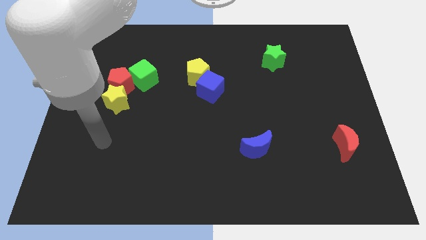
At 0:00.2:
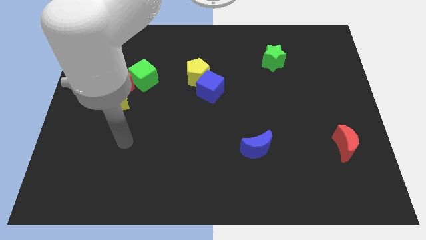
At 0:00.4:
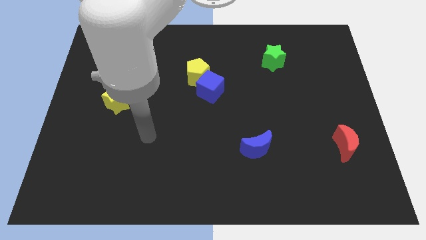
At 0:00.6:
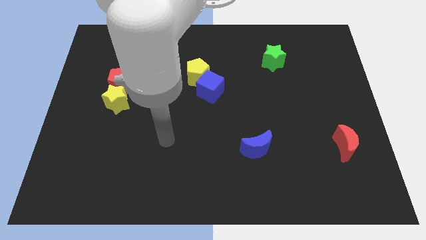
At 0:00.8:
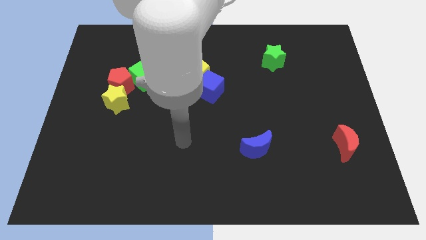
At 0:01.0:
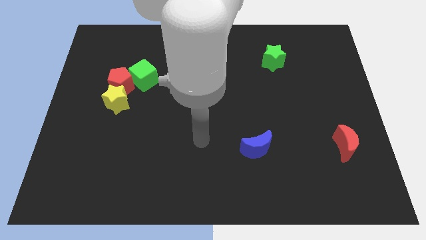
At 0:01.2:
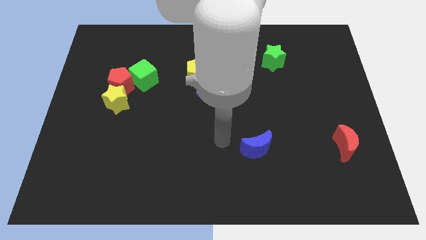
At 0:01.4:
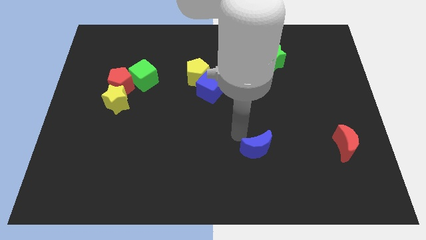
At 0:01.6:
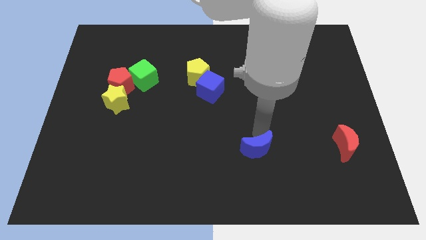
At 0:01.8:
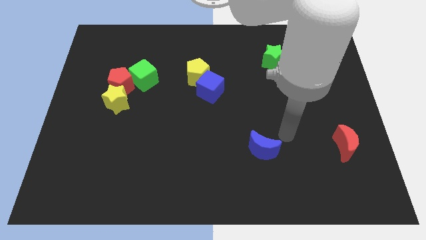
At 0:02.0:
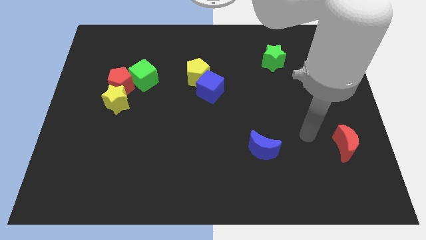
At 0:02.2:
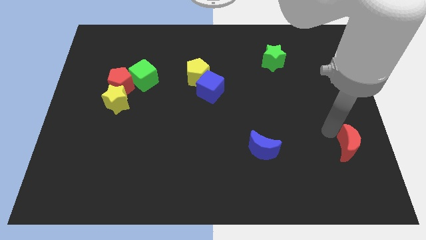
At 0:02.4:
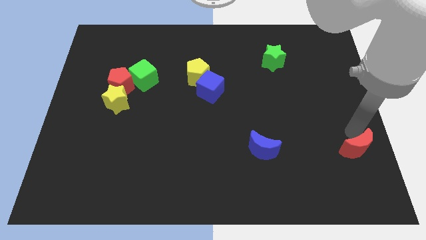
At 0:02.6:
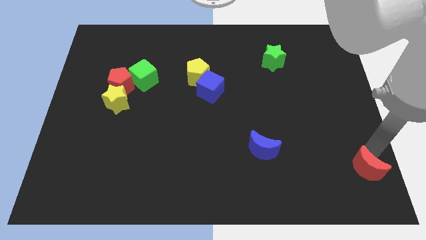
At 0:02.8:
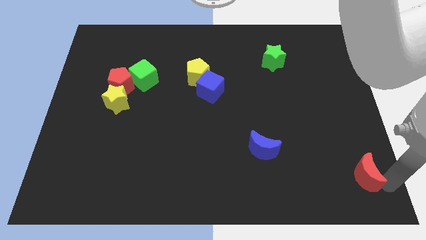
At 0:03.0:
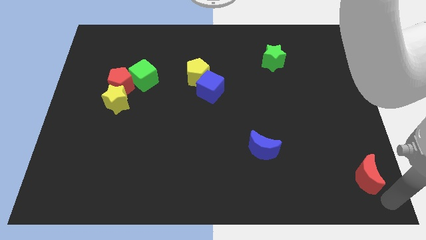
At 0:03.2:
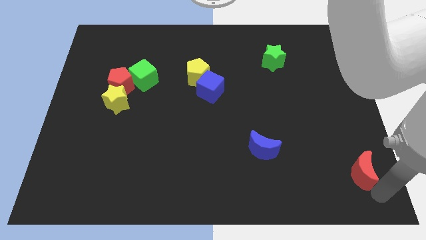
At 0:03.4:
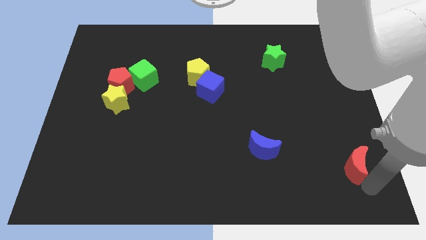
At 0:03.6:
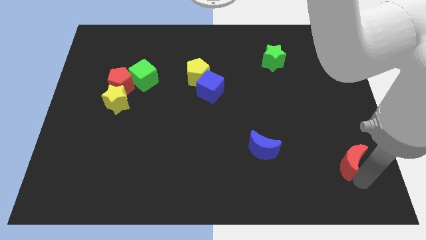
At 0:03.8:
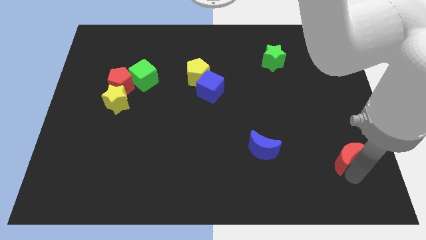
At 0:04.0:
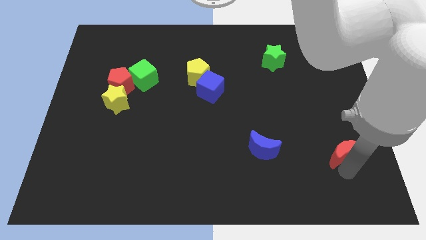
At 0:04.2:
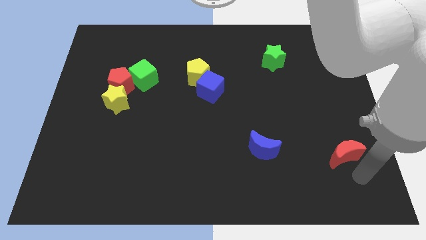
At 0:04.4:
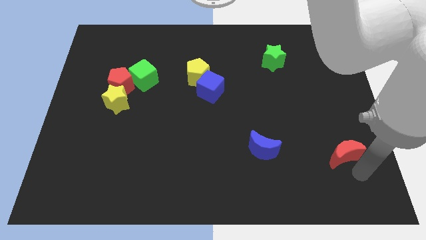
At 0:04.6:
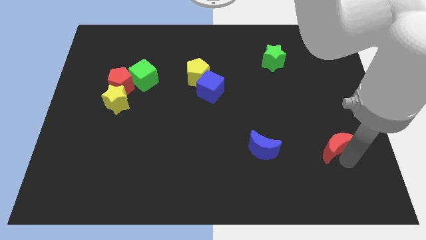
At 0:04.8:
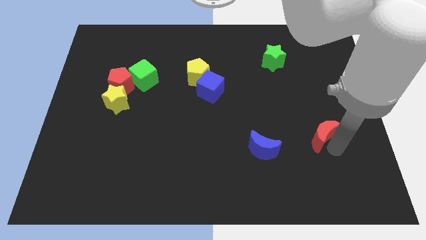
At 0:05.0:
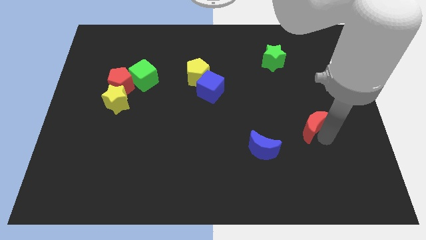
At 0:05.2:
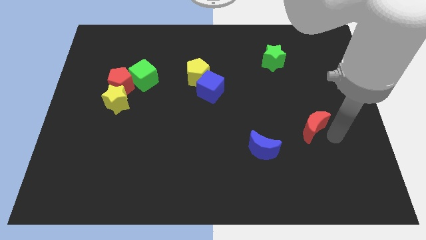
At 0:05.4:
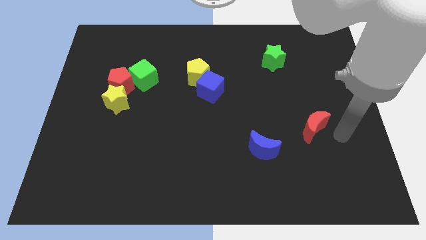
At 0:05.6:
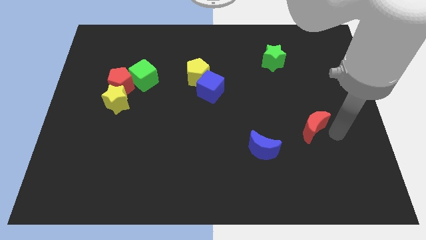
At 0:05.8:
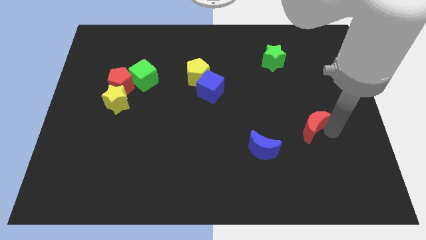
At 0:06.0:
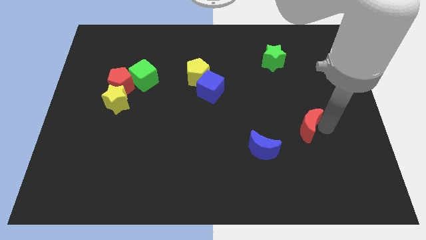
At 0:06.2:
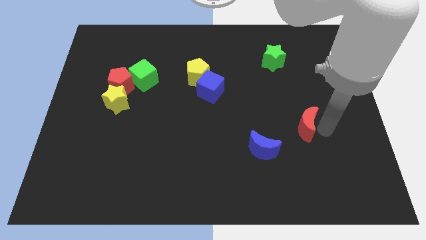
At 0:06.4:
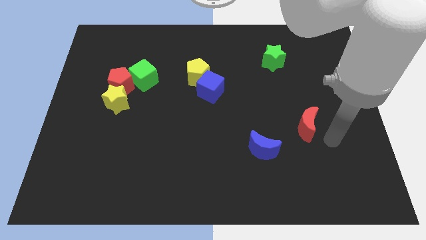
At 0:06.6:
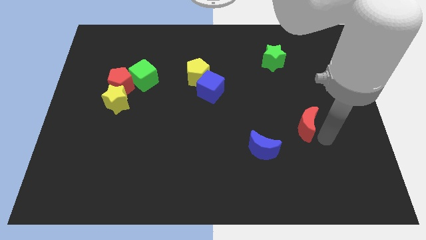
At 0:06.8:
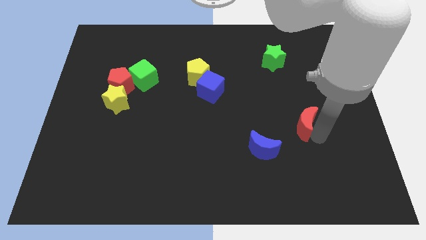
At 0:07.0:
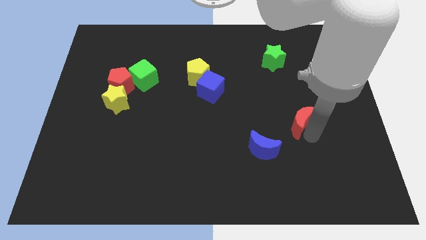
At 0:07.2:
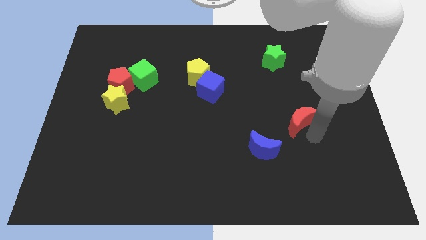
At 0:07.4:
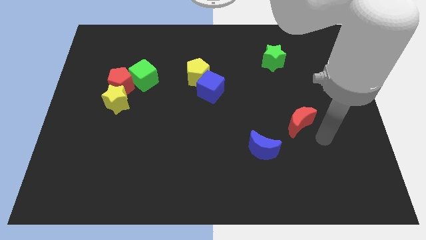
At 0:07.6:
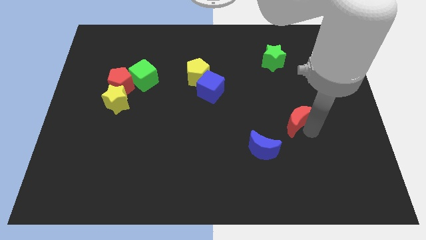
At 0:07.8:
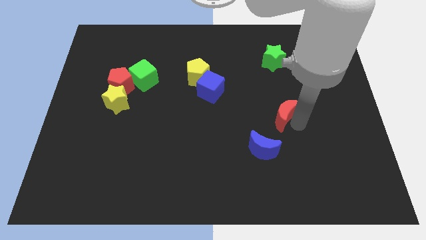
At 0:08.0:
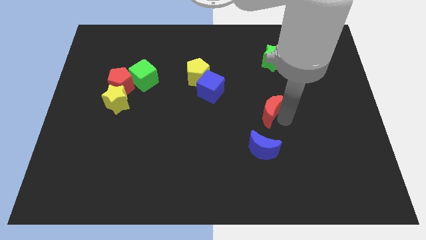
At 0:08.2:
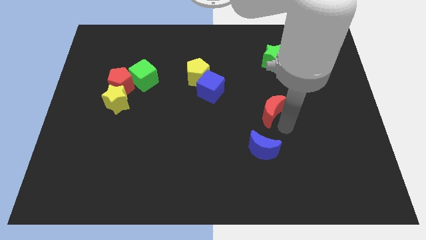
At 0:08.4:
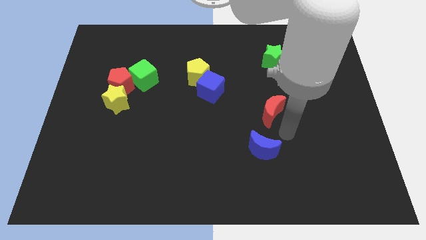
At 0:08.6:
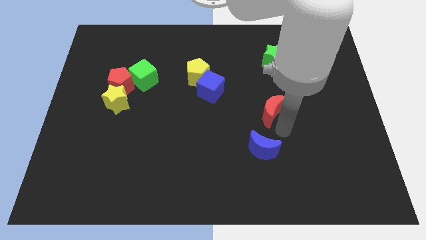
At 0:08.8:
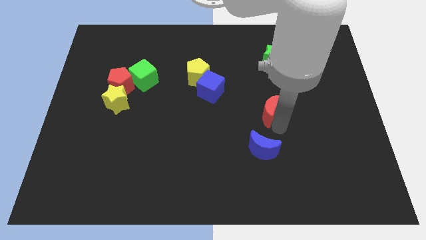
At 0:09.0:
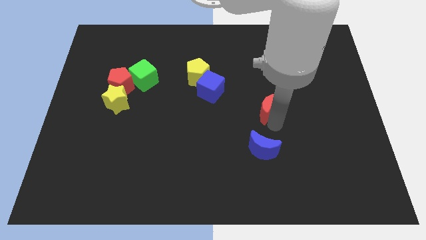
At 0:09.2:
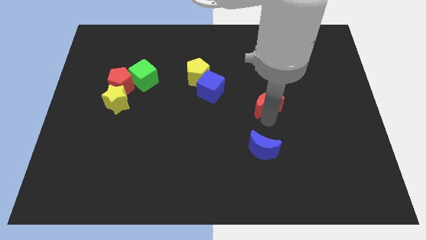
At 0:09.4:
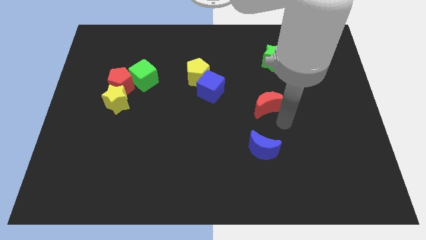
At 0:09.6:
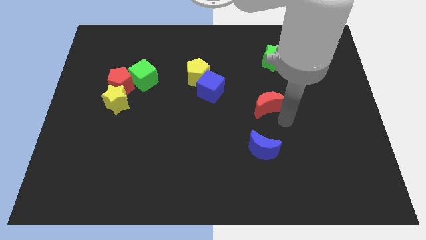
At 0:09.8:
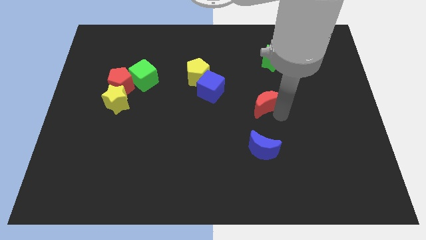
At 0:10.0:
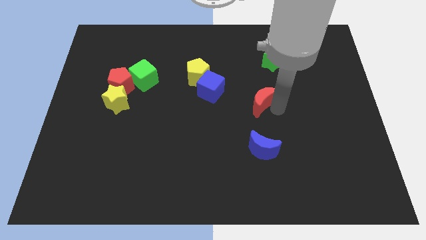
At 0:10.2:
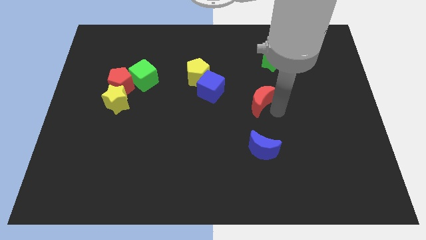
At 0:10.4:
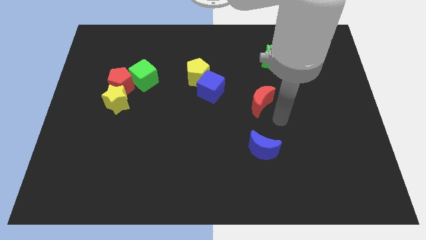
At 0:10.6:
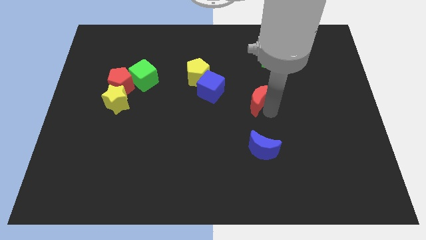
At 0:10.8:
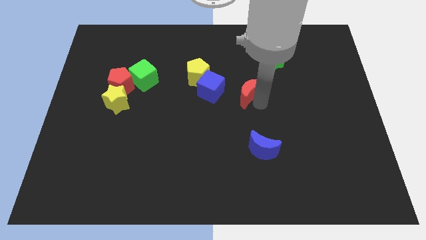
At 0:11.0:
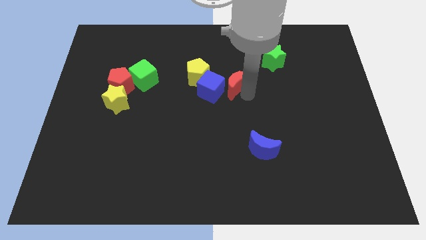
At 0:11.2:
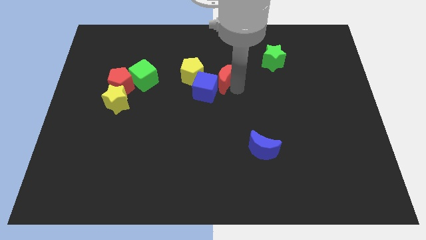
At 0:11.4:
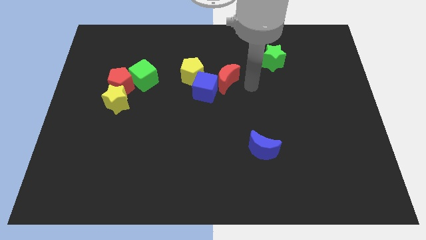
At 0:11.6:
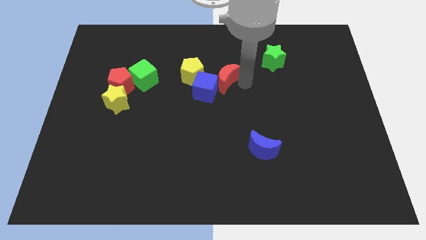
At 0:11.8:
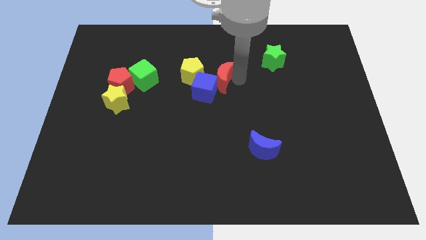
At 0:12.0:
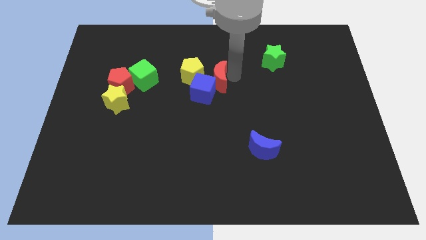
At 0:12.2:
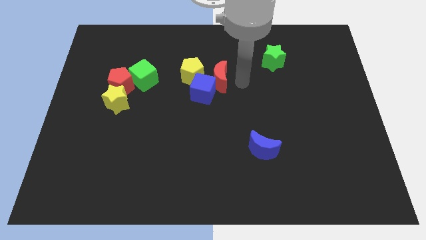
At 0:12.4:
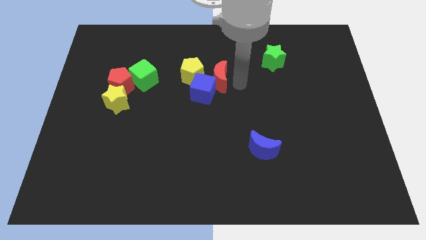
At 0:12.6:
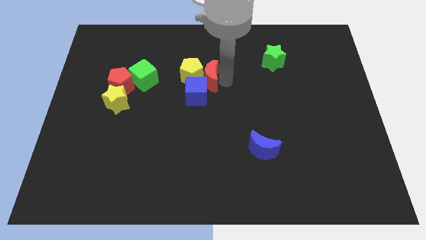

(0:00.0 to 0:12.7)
slide the red moon to the yellow pentagon

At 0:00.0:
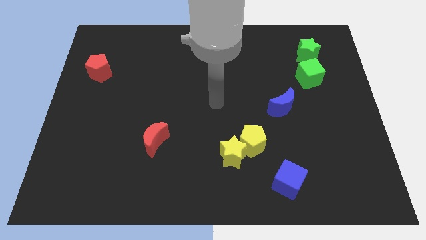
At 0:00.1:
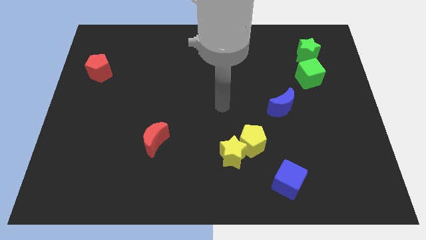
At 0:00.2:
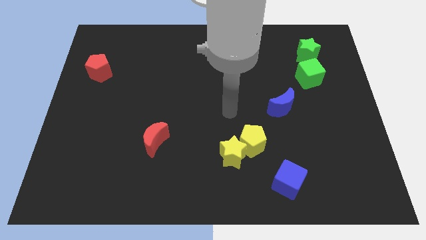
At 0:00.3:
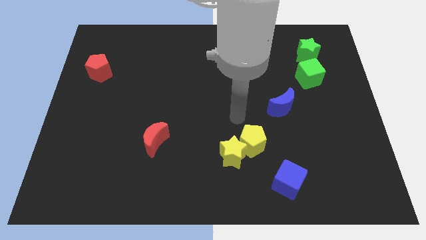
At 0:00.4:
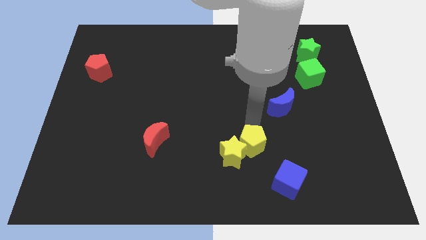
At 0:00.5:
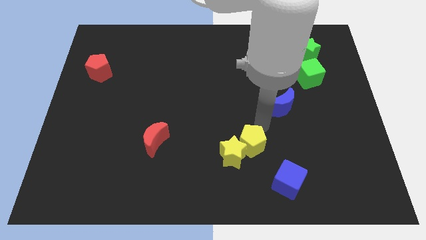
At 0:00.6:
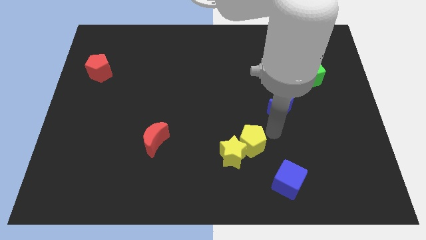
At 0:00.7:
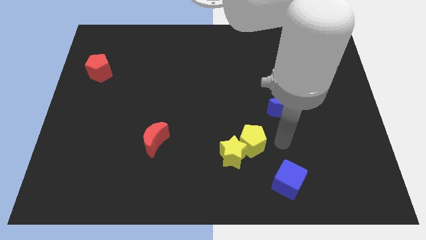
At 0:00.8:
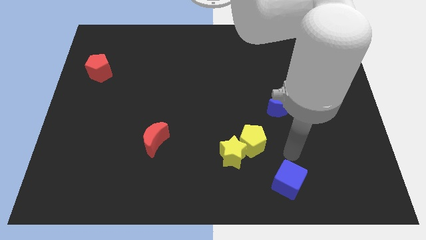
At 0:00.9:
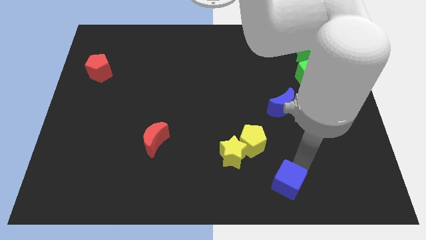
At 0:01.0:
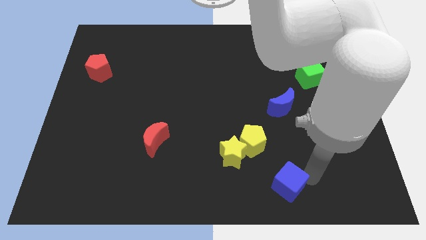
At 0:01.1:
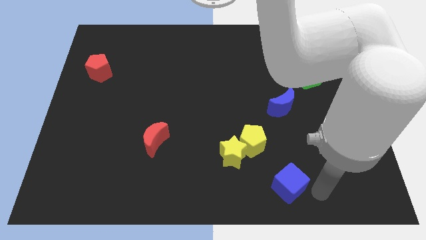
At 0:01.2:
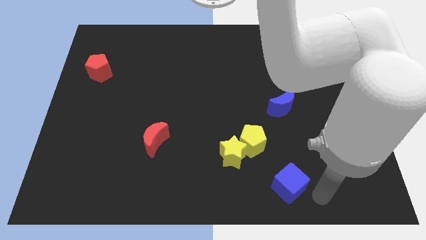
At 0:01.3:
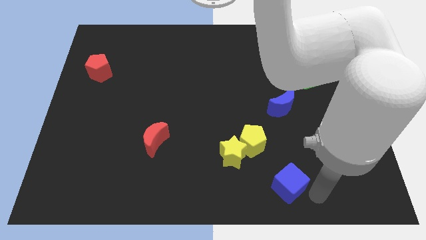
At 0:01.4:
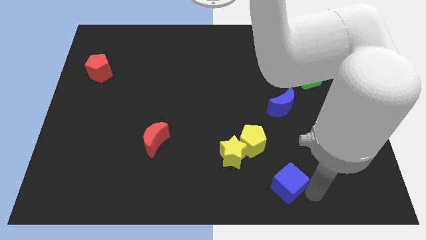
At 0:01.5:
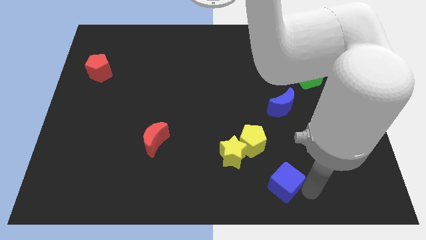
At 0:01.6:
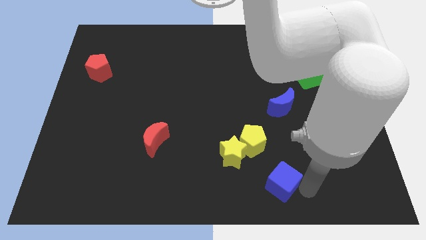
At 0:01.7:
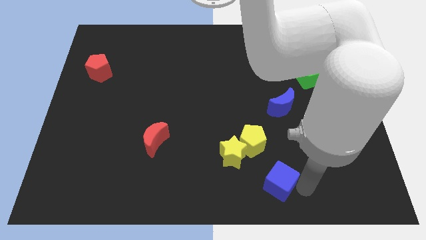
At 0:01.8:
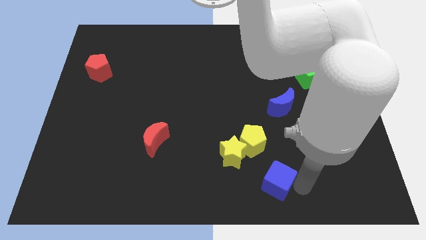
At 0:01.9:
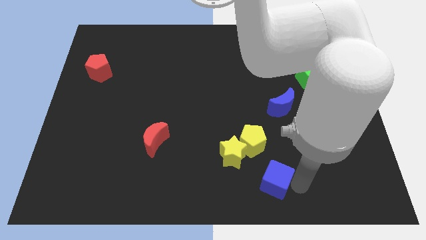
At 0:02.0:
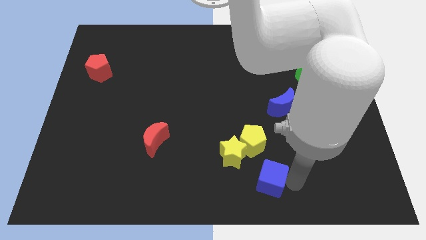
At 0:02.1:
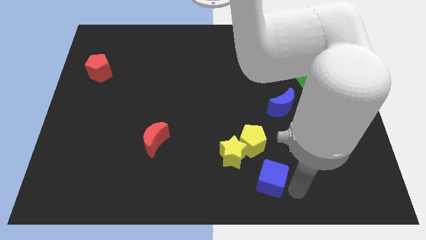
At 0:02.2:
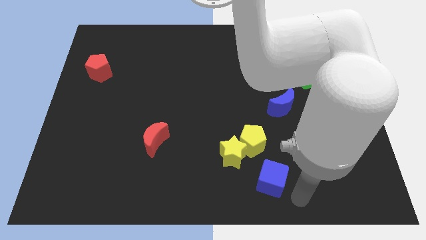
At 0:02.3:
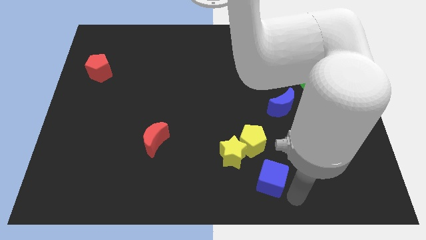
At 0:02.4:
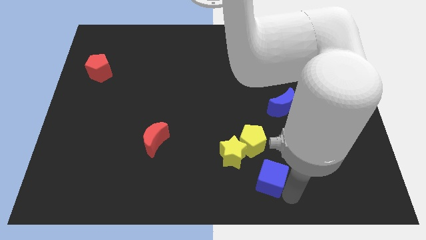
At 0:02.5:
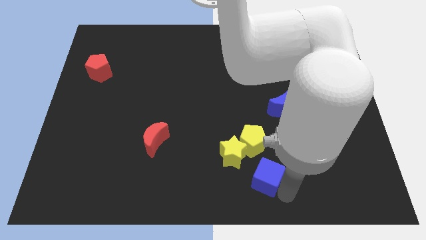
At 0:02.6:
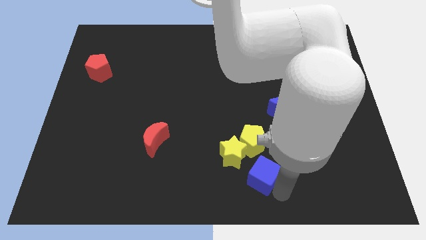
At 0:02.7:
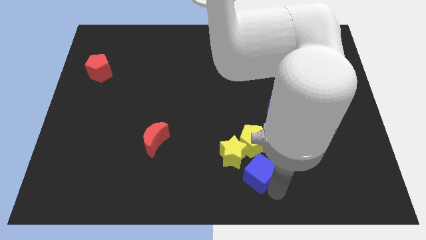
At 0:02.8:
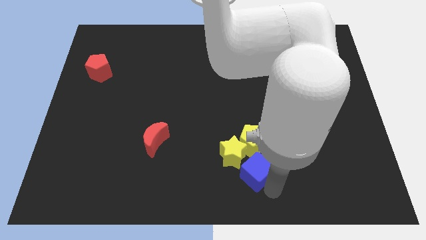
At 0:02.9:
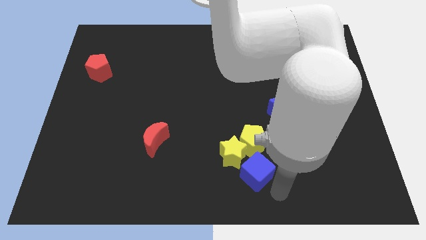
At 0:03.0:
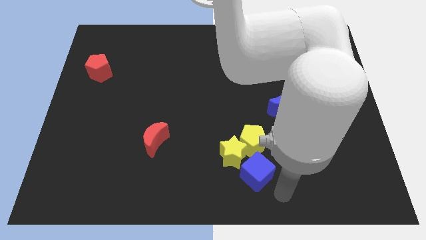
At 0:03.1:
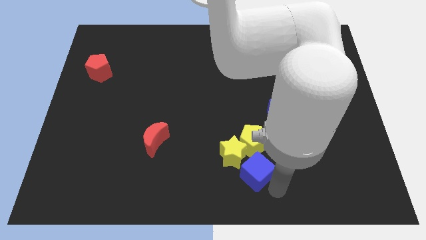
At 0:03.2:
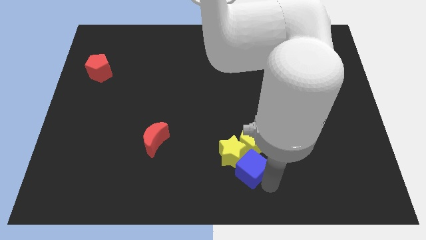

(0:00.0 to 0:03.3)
slide the blue cube close to the yellow star
